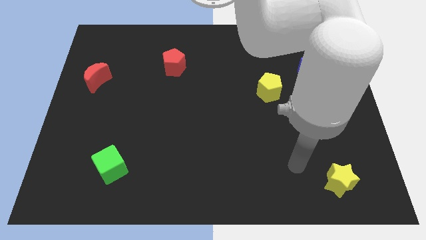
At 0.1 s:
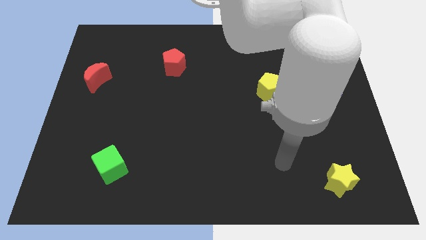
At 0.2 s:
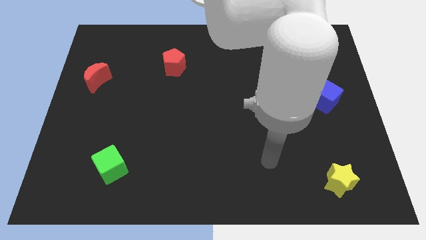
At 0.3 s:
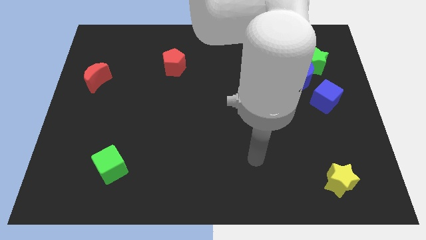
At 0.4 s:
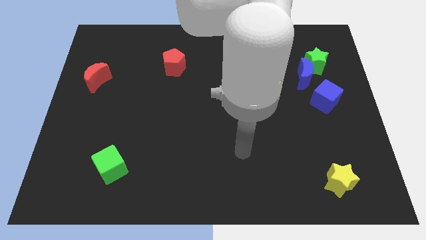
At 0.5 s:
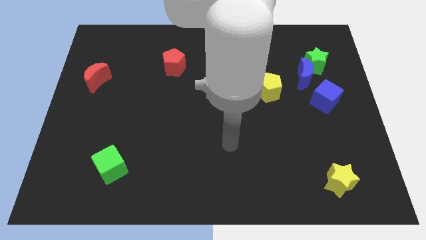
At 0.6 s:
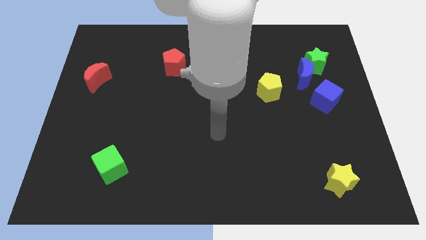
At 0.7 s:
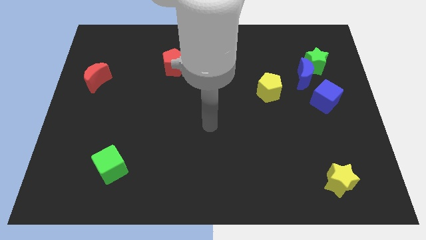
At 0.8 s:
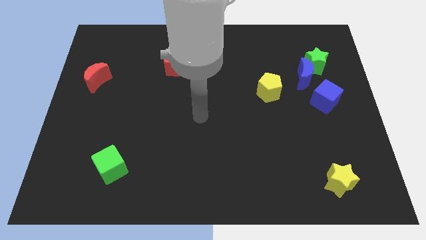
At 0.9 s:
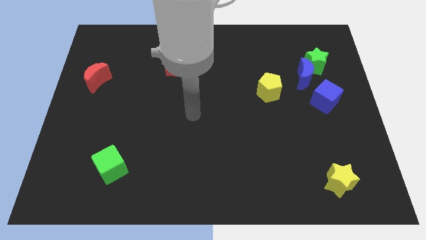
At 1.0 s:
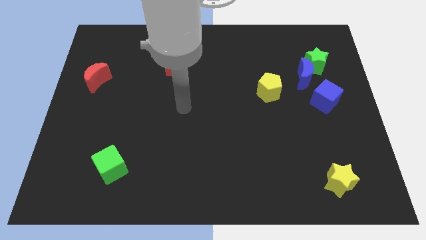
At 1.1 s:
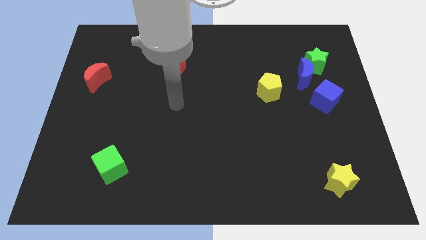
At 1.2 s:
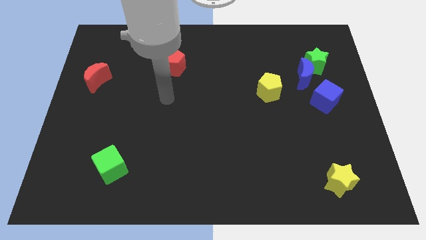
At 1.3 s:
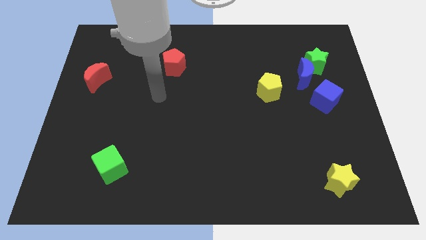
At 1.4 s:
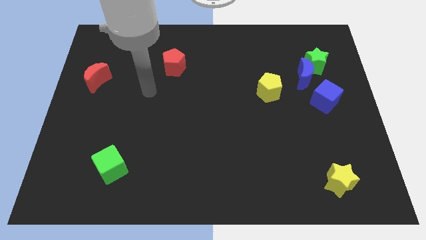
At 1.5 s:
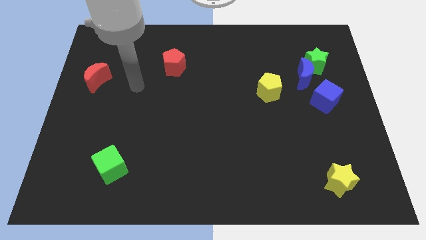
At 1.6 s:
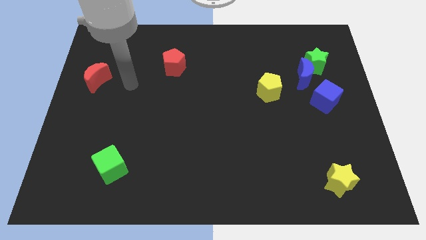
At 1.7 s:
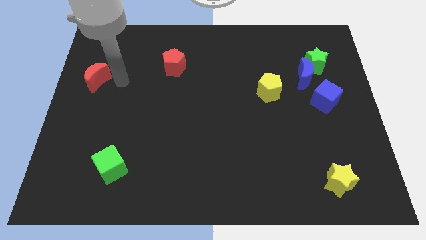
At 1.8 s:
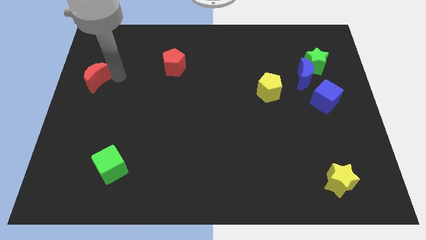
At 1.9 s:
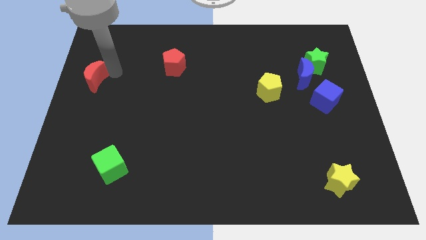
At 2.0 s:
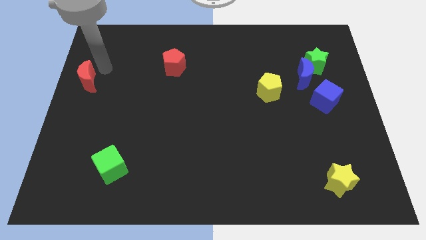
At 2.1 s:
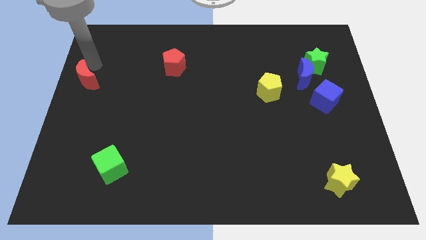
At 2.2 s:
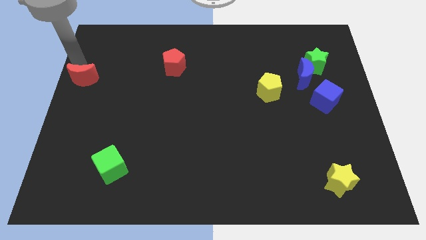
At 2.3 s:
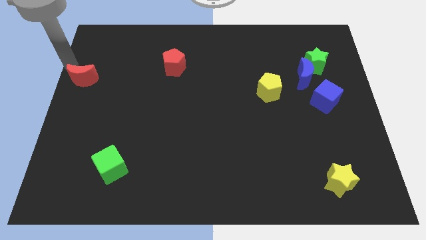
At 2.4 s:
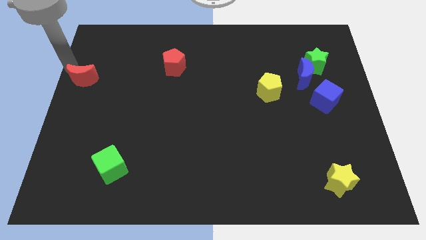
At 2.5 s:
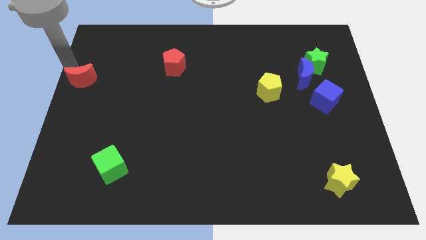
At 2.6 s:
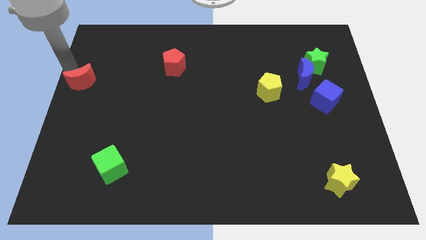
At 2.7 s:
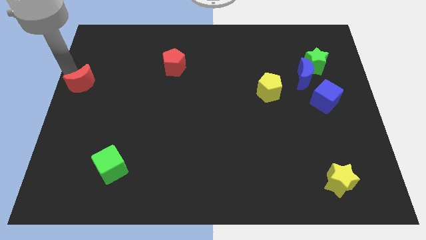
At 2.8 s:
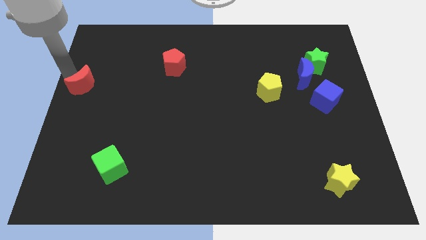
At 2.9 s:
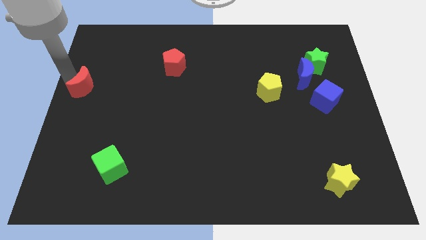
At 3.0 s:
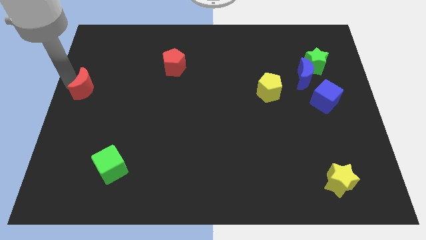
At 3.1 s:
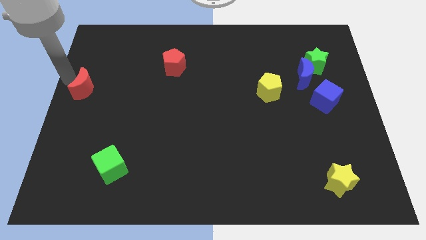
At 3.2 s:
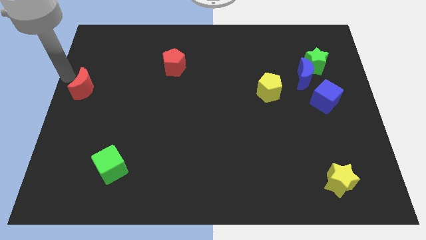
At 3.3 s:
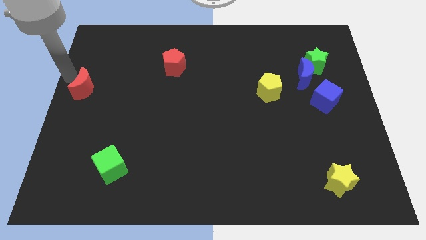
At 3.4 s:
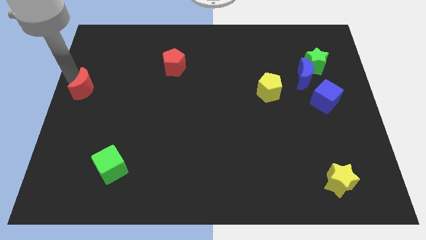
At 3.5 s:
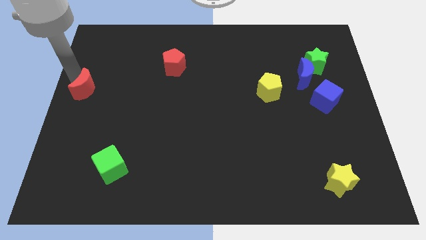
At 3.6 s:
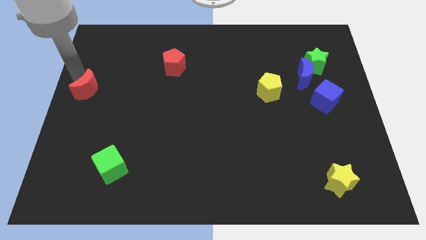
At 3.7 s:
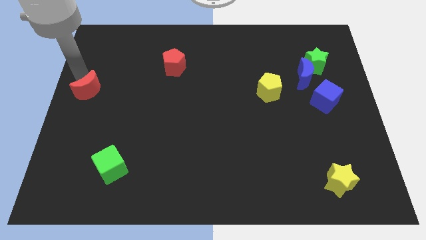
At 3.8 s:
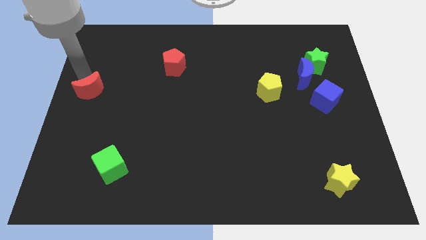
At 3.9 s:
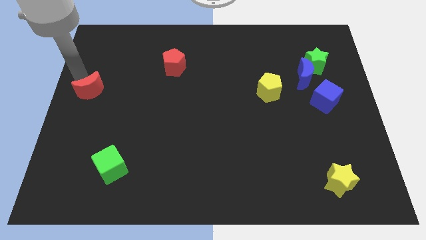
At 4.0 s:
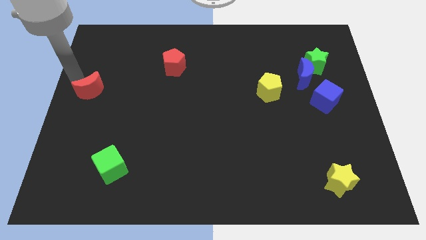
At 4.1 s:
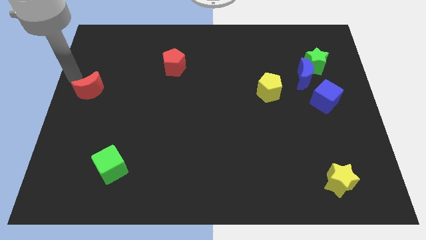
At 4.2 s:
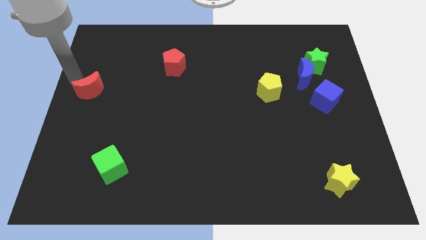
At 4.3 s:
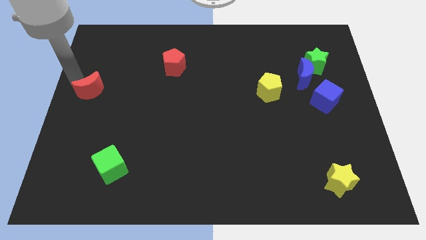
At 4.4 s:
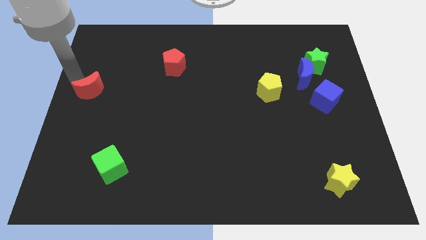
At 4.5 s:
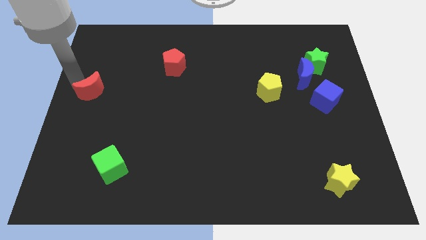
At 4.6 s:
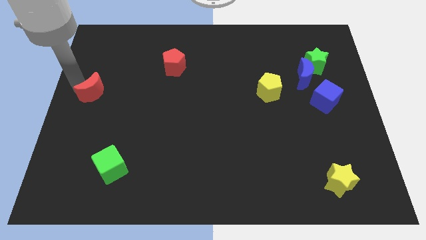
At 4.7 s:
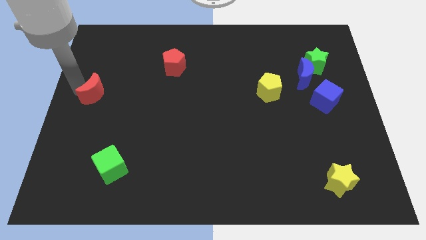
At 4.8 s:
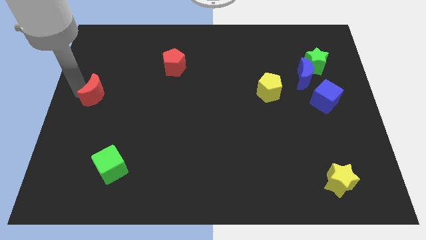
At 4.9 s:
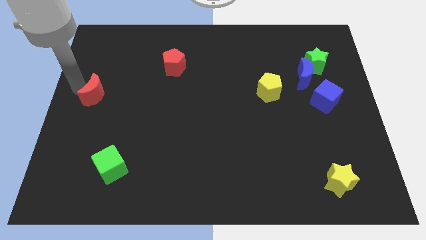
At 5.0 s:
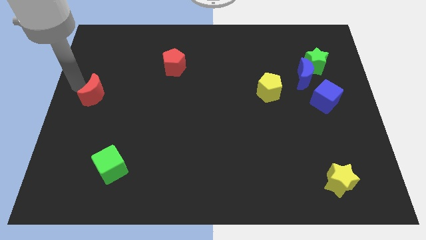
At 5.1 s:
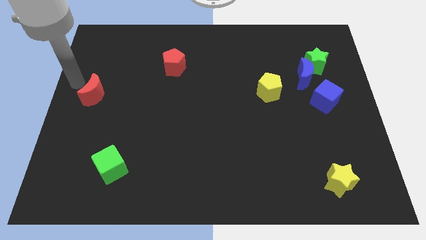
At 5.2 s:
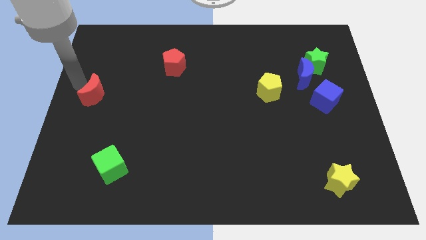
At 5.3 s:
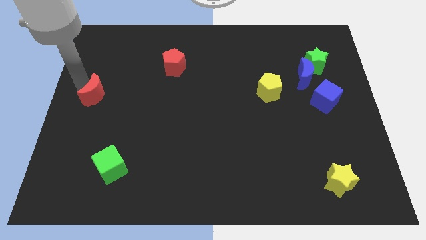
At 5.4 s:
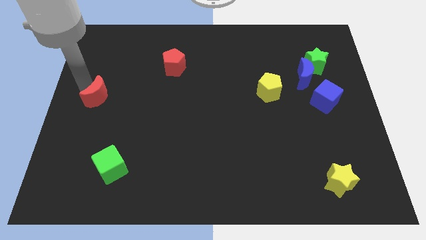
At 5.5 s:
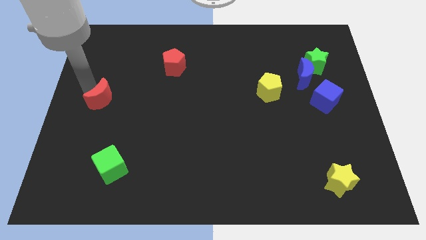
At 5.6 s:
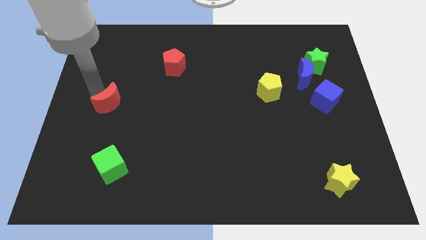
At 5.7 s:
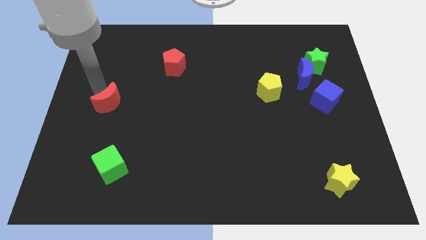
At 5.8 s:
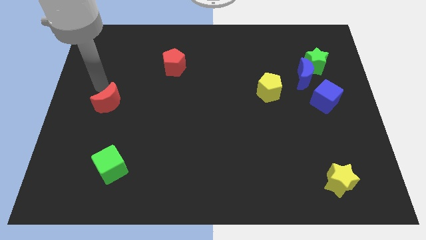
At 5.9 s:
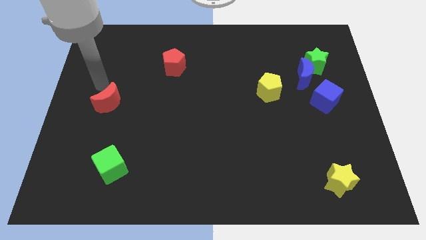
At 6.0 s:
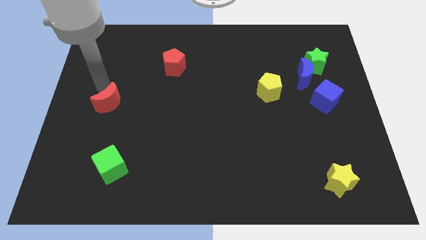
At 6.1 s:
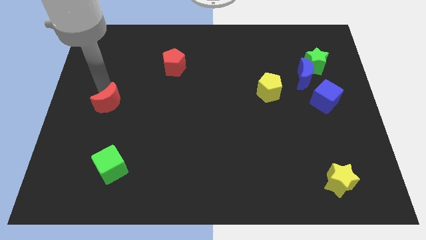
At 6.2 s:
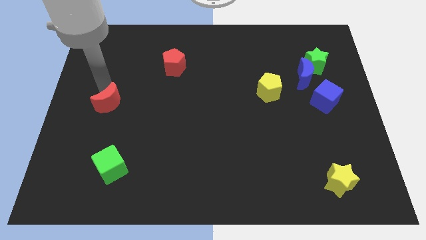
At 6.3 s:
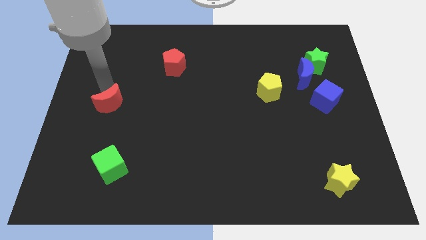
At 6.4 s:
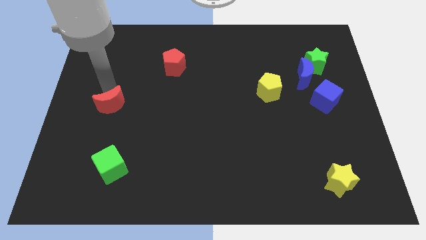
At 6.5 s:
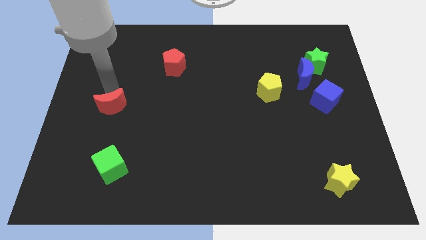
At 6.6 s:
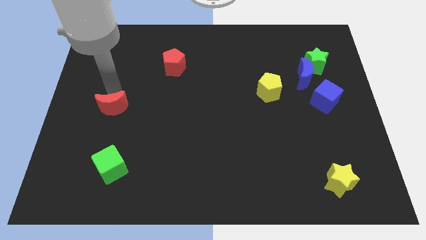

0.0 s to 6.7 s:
put the red moon above the green cube
